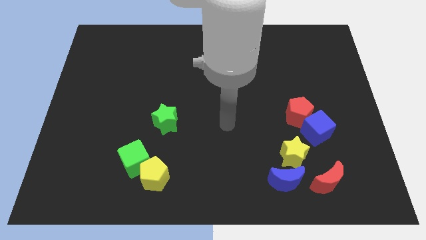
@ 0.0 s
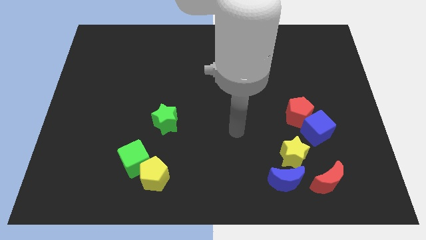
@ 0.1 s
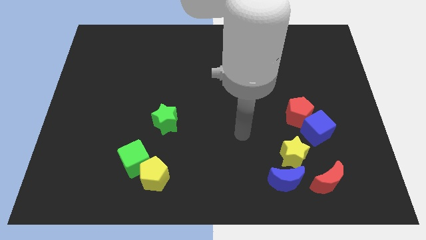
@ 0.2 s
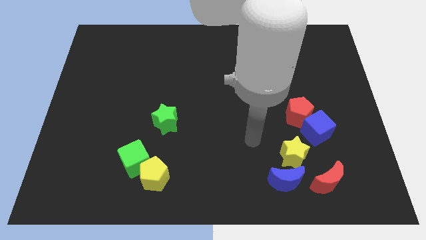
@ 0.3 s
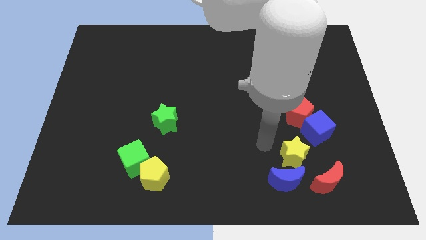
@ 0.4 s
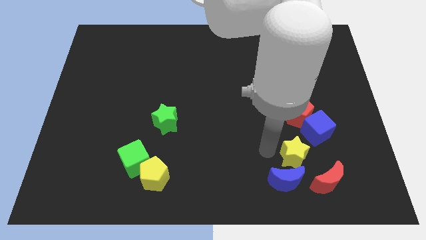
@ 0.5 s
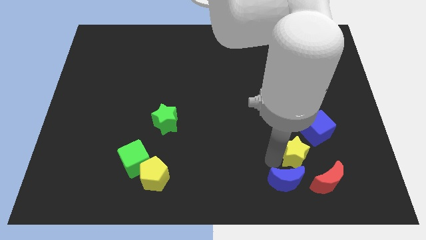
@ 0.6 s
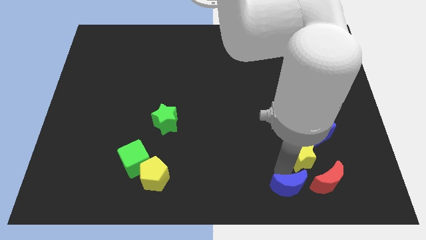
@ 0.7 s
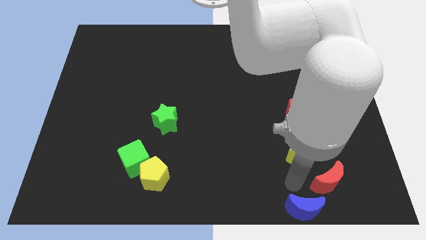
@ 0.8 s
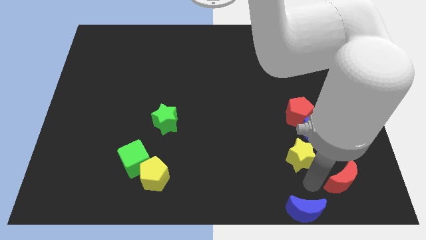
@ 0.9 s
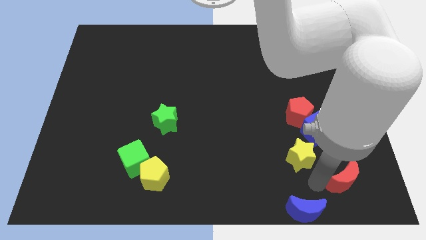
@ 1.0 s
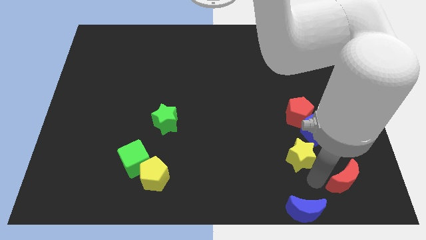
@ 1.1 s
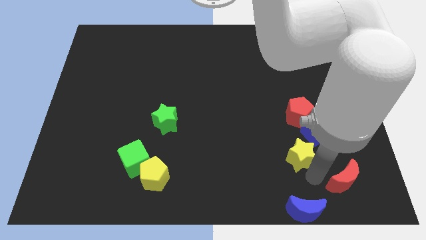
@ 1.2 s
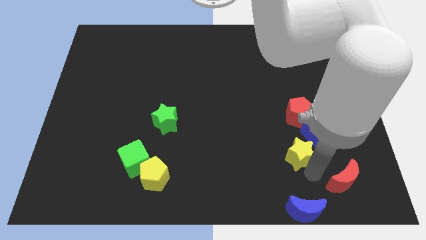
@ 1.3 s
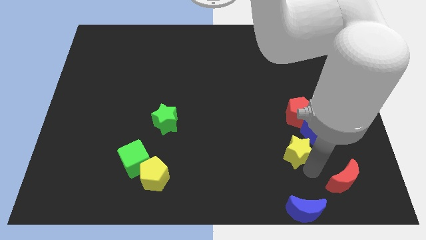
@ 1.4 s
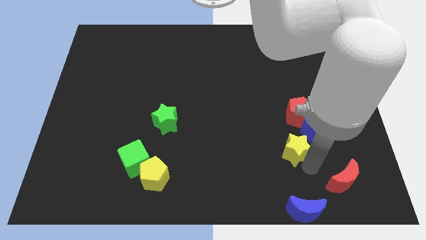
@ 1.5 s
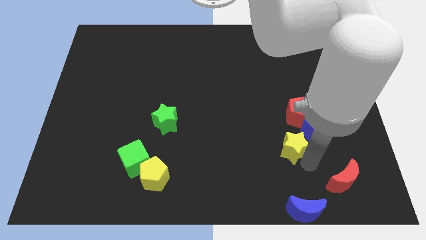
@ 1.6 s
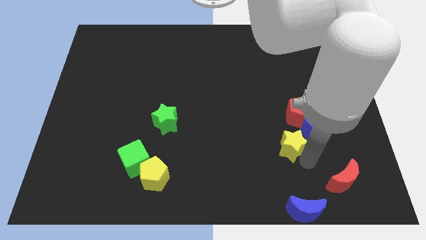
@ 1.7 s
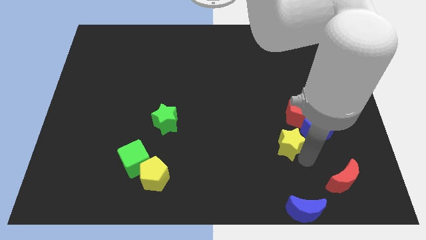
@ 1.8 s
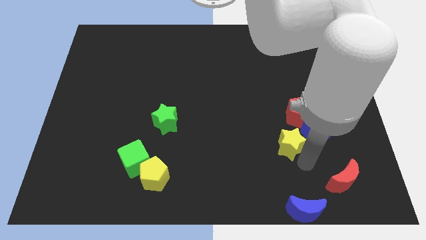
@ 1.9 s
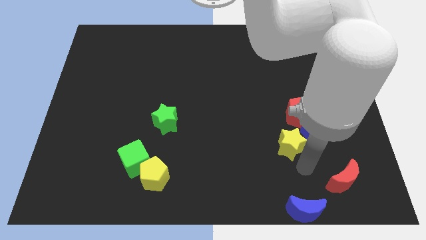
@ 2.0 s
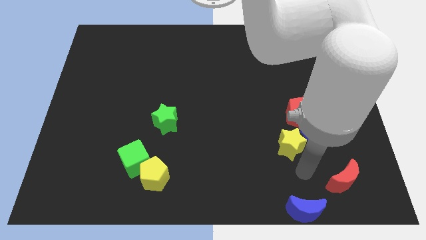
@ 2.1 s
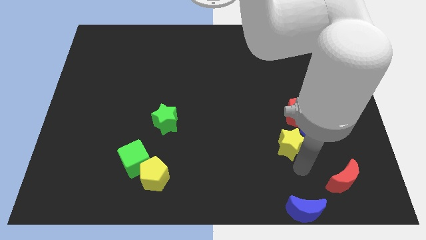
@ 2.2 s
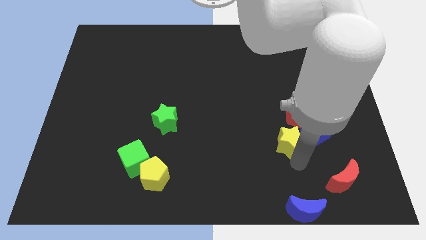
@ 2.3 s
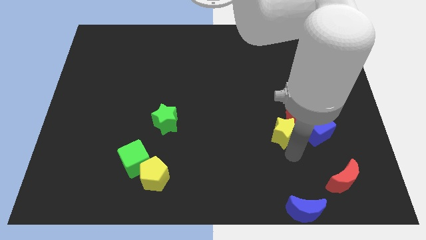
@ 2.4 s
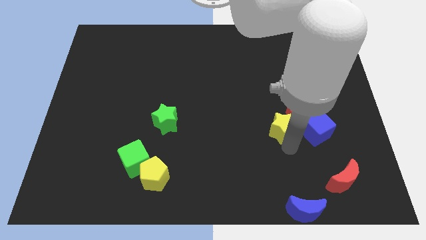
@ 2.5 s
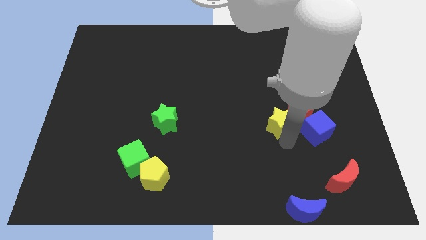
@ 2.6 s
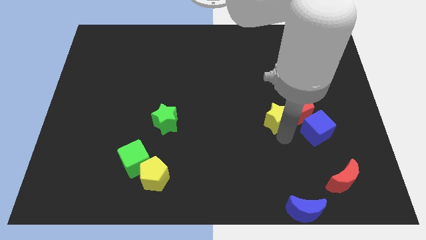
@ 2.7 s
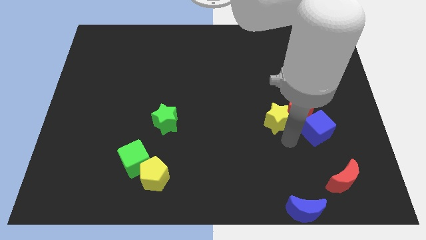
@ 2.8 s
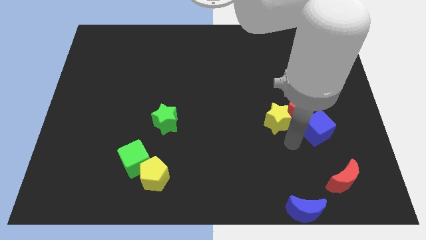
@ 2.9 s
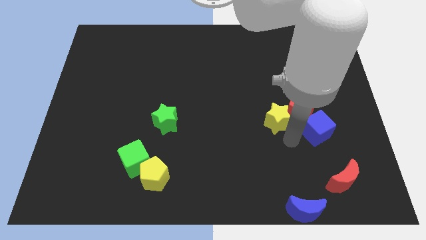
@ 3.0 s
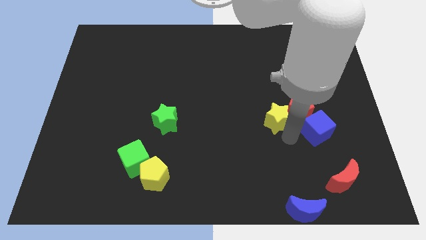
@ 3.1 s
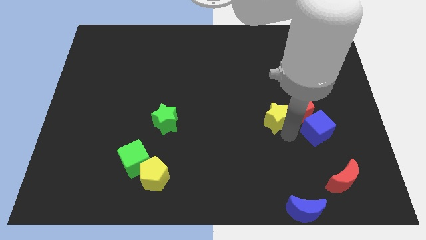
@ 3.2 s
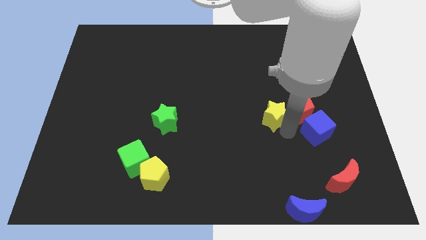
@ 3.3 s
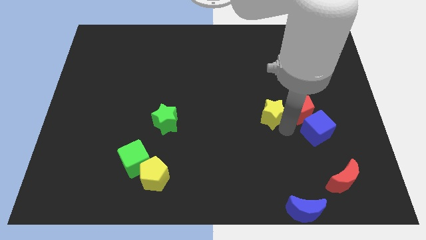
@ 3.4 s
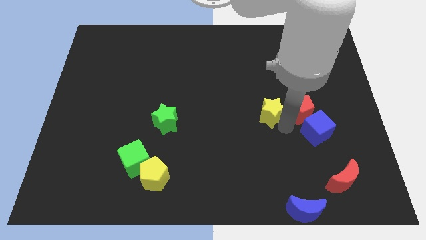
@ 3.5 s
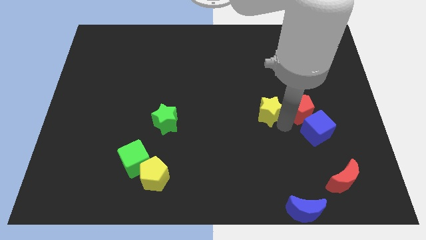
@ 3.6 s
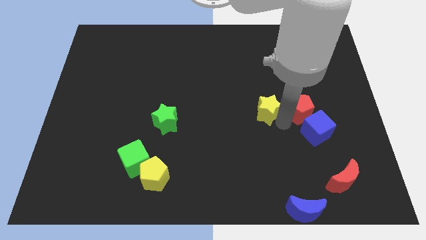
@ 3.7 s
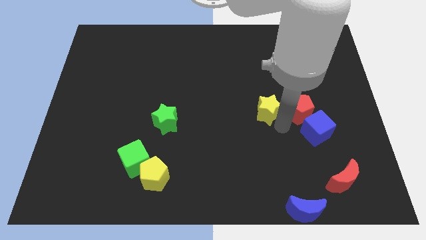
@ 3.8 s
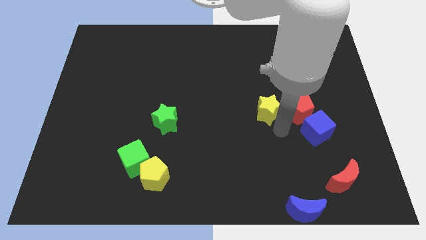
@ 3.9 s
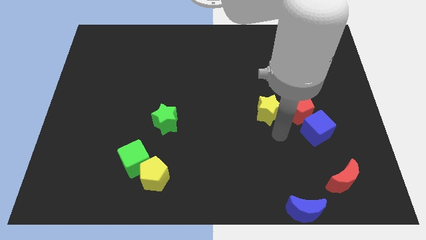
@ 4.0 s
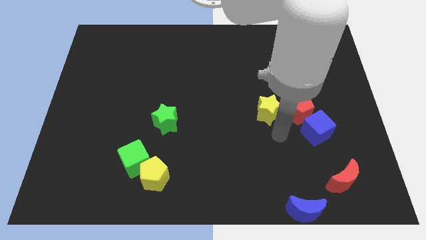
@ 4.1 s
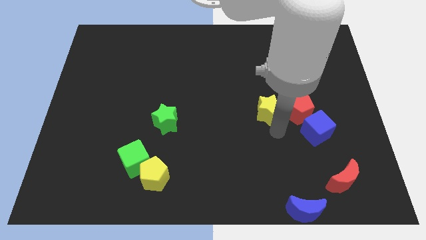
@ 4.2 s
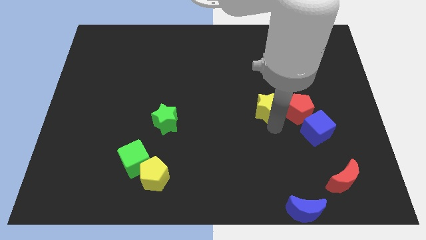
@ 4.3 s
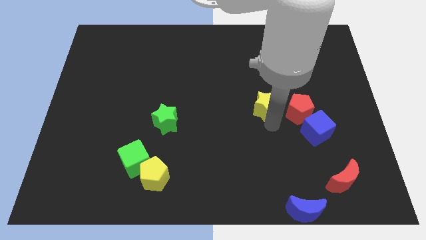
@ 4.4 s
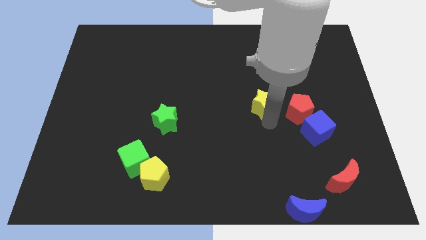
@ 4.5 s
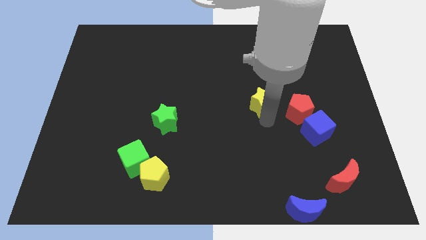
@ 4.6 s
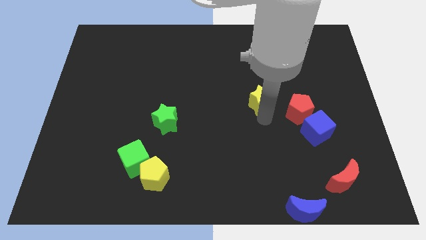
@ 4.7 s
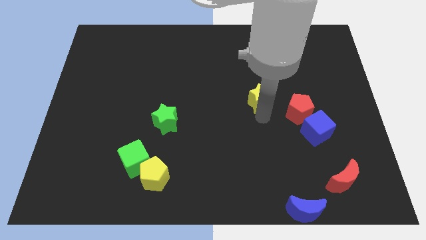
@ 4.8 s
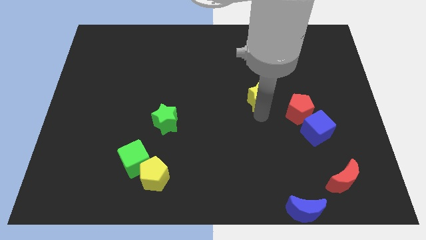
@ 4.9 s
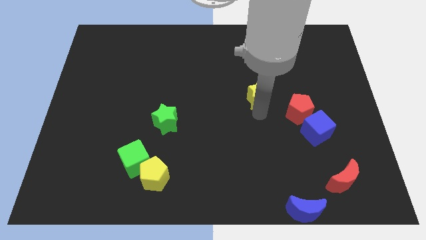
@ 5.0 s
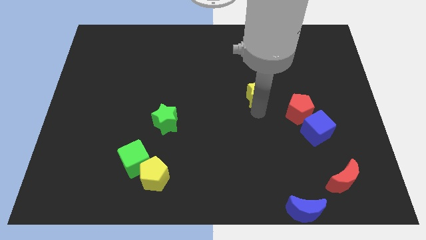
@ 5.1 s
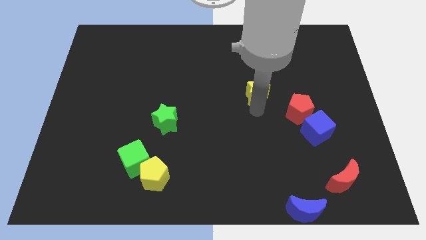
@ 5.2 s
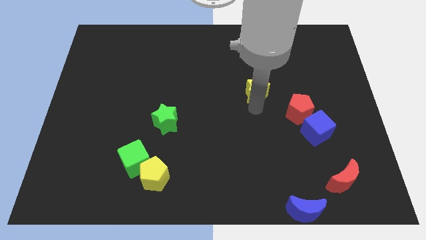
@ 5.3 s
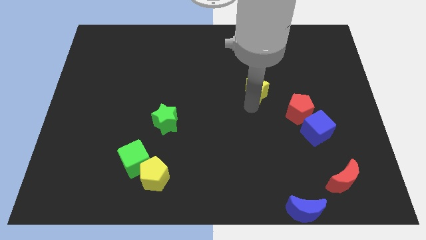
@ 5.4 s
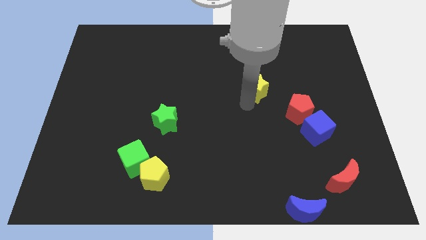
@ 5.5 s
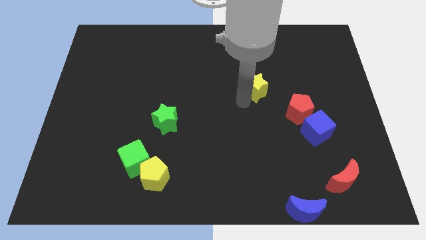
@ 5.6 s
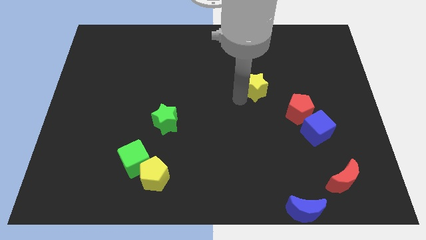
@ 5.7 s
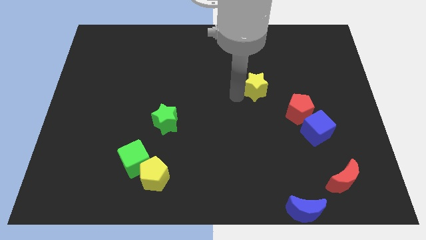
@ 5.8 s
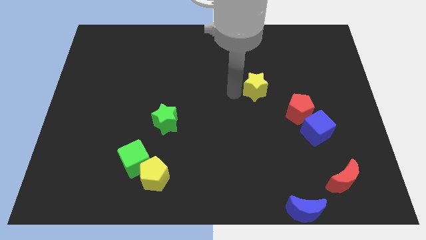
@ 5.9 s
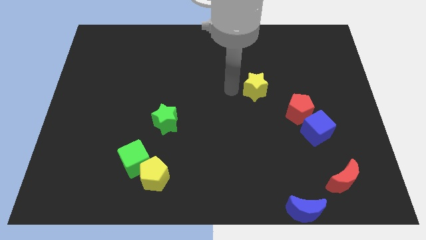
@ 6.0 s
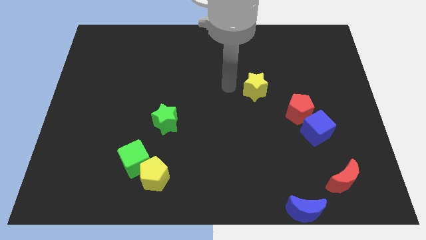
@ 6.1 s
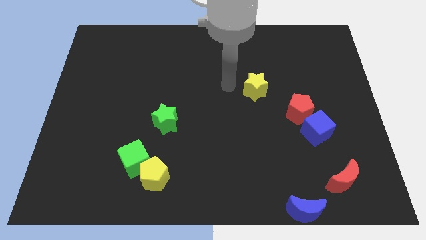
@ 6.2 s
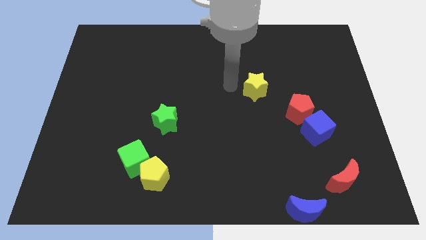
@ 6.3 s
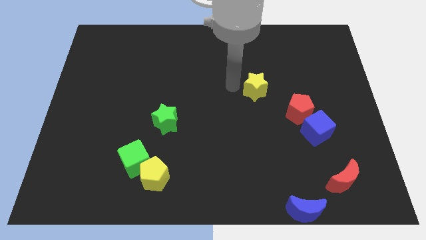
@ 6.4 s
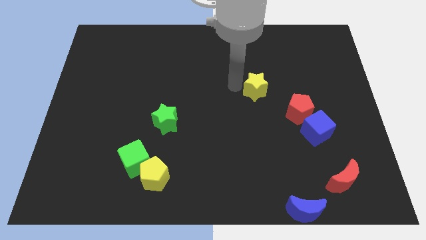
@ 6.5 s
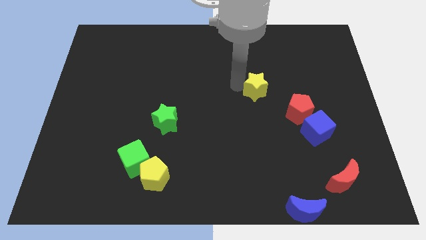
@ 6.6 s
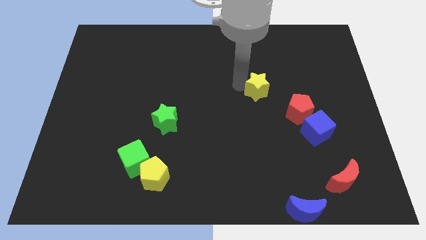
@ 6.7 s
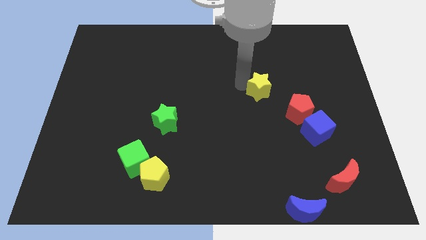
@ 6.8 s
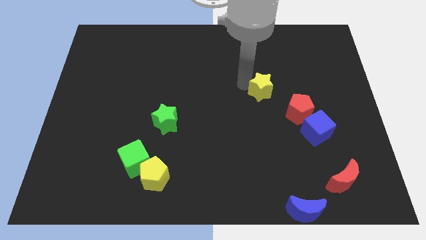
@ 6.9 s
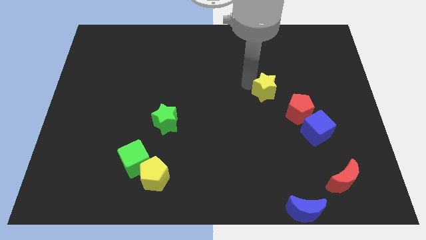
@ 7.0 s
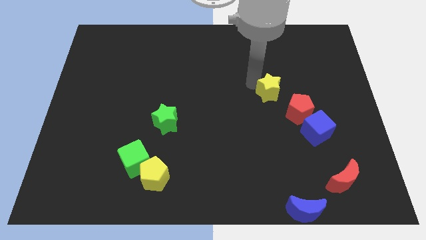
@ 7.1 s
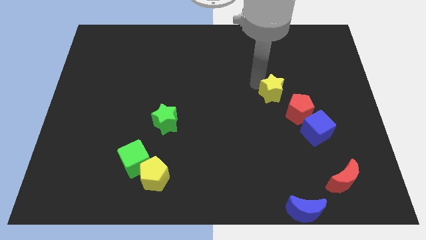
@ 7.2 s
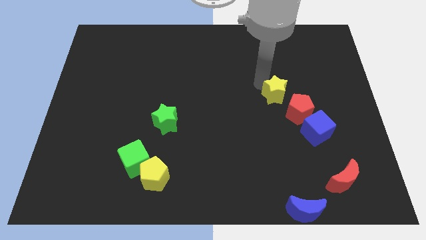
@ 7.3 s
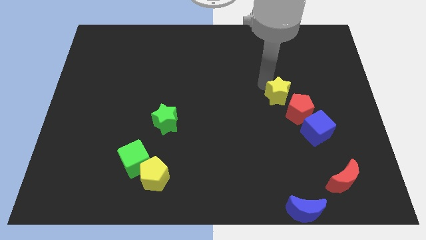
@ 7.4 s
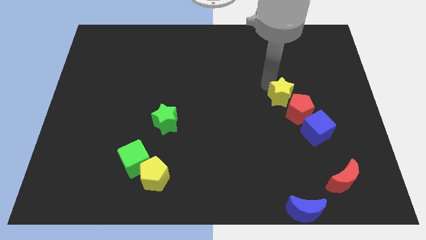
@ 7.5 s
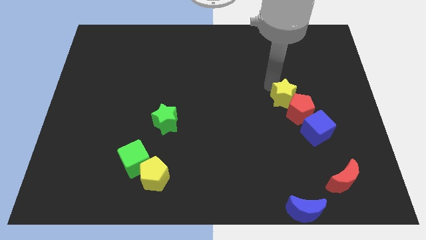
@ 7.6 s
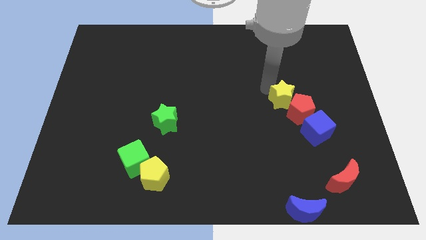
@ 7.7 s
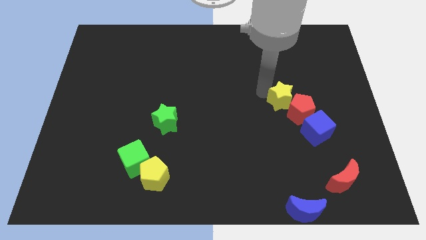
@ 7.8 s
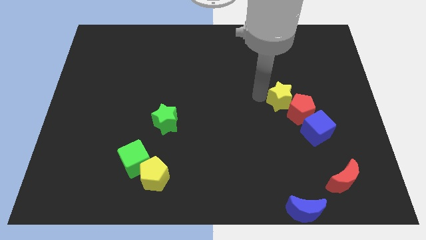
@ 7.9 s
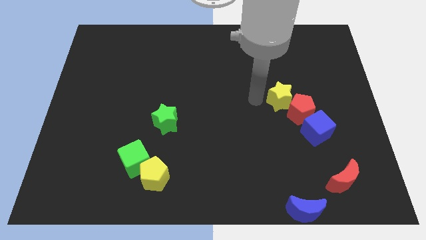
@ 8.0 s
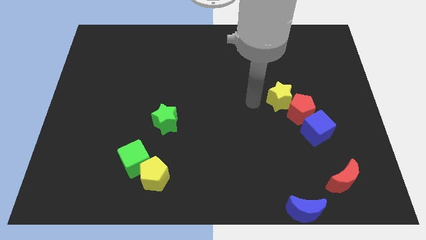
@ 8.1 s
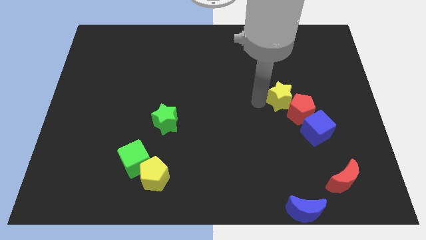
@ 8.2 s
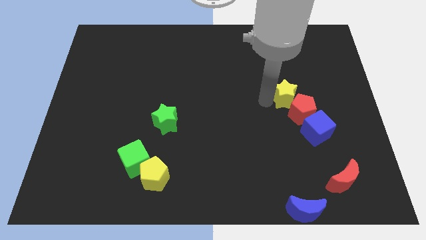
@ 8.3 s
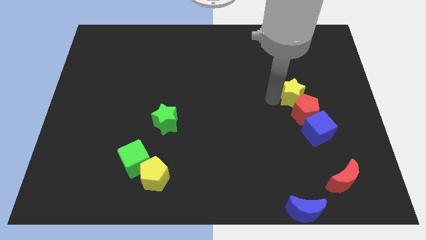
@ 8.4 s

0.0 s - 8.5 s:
put the yellow star to the top side of the blue cube
